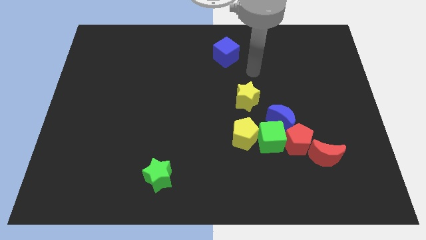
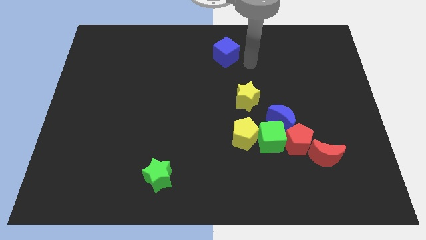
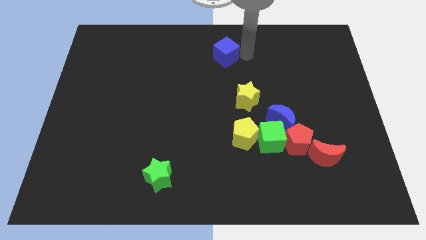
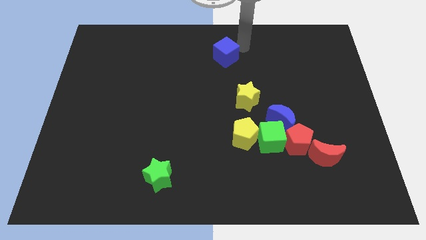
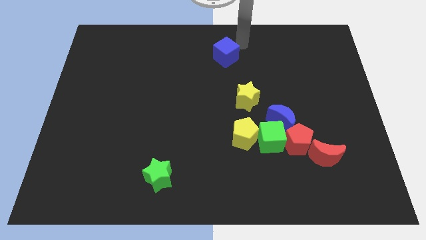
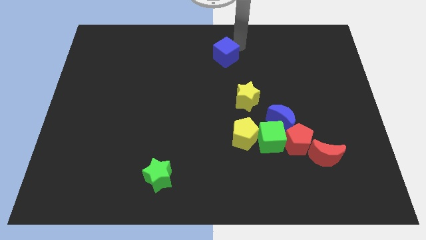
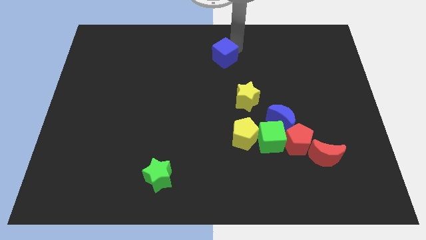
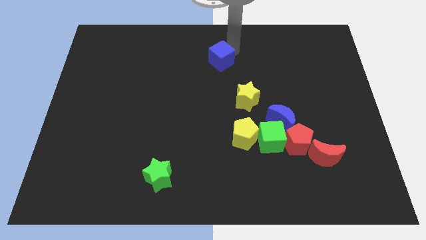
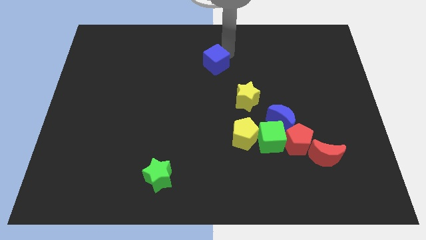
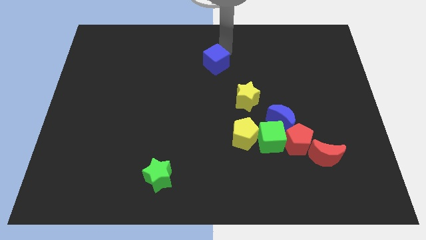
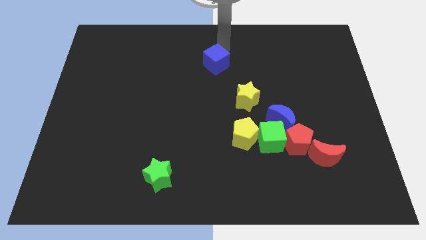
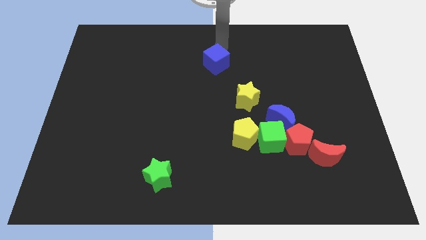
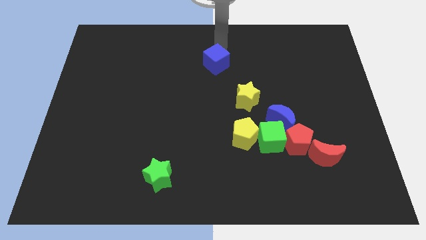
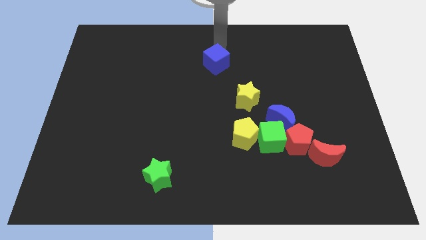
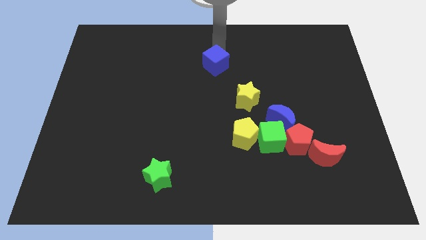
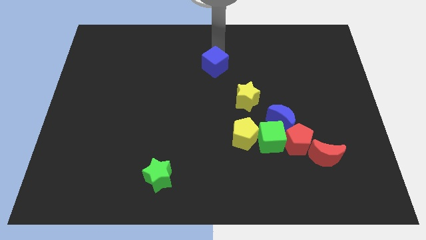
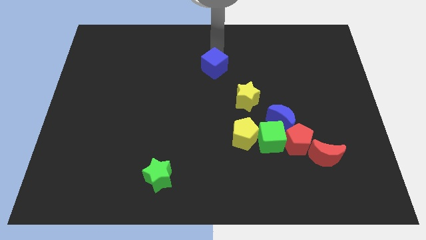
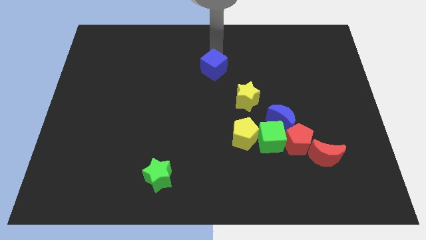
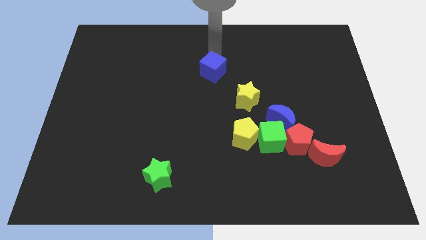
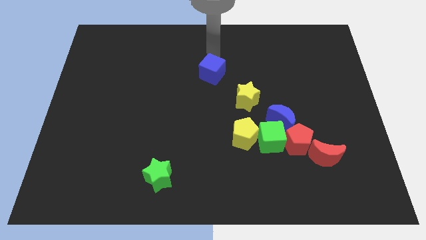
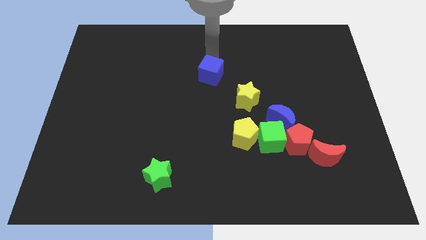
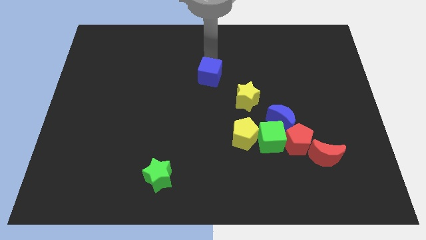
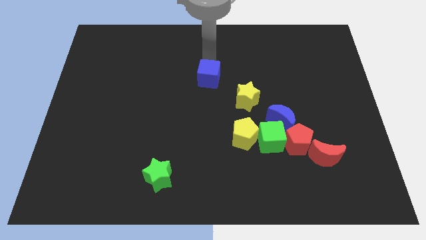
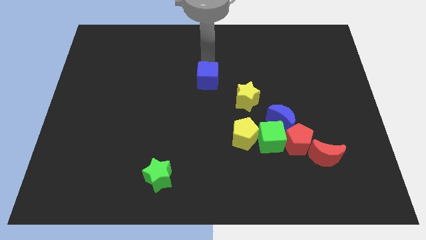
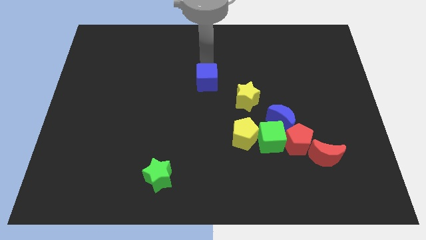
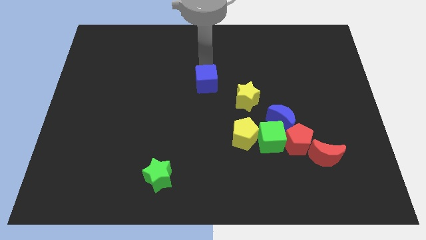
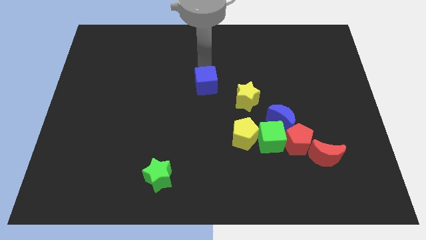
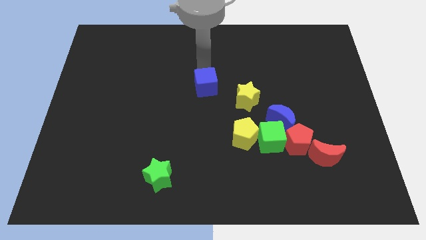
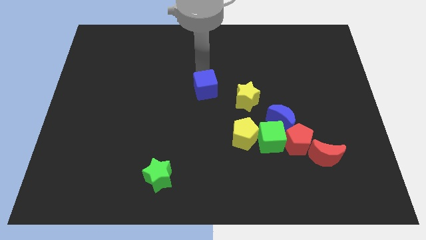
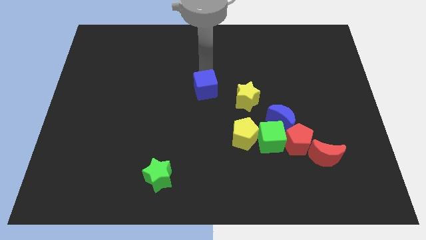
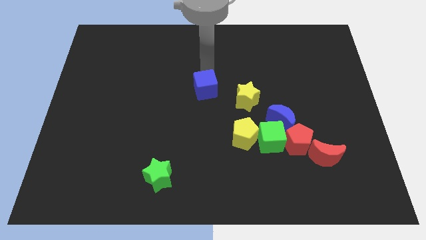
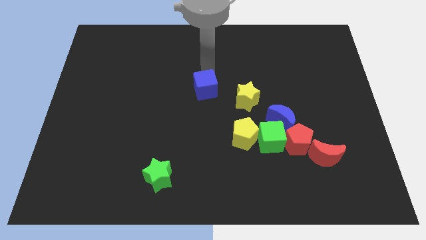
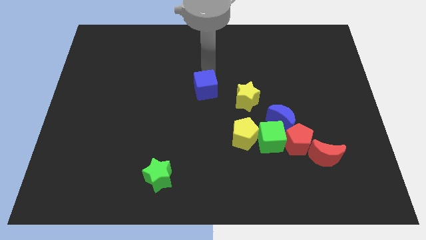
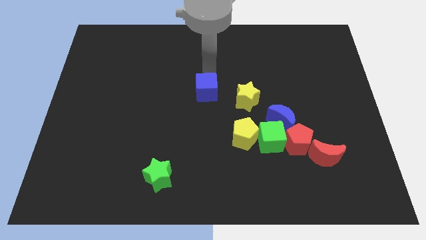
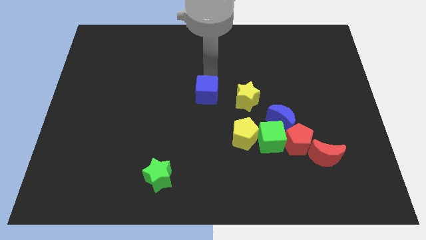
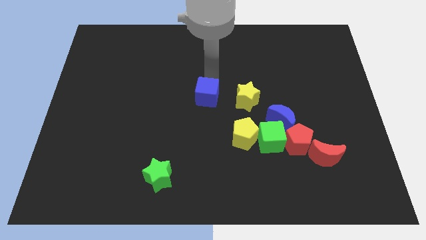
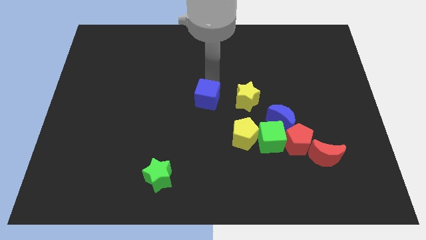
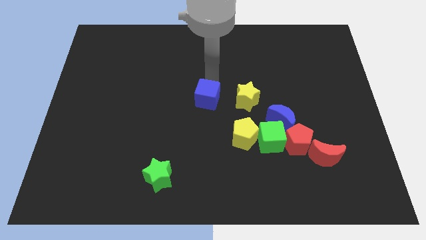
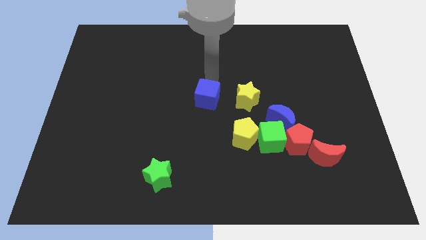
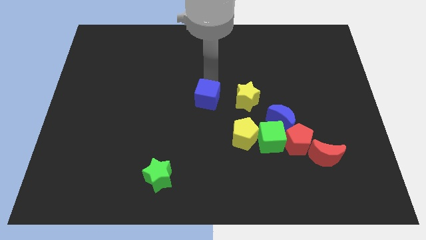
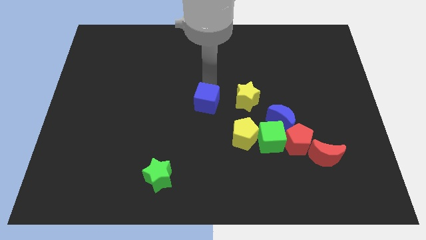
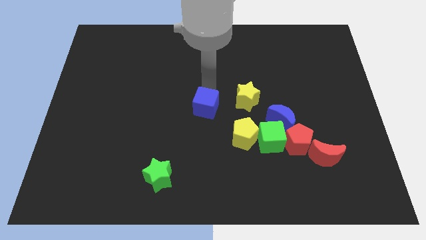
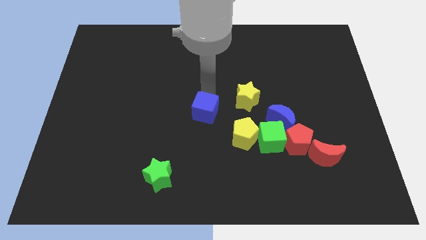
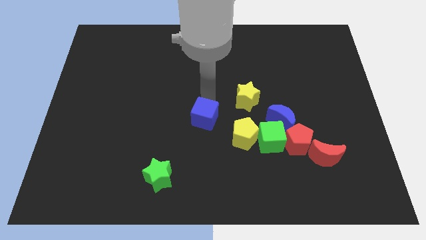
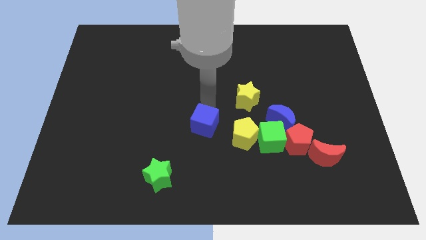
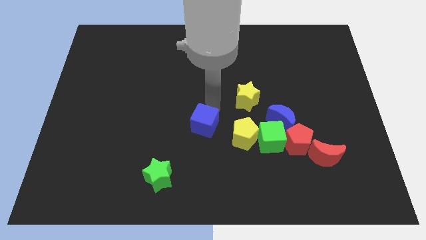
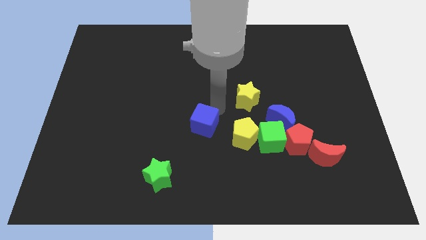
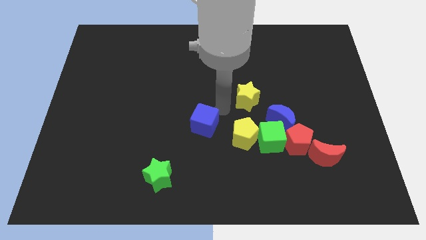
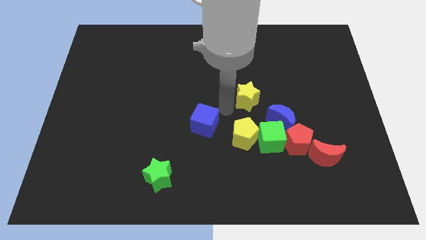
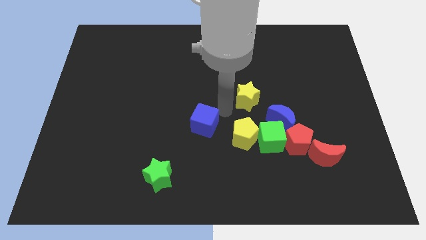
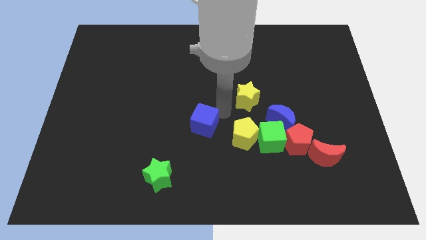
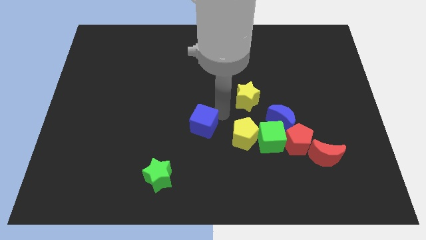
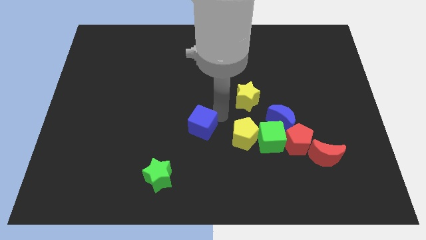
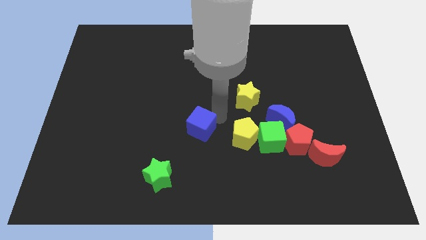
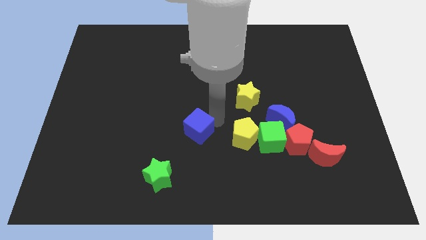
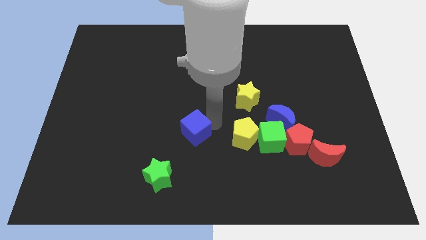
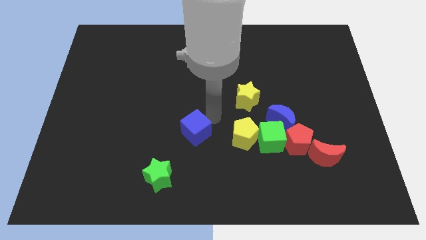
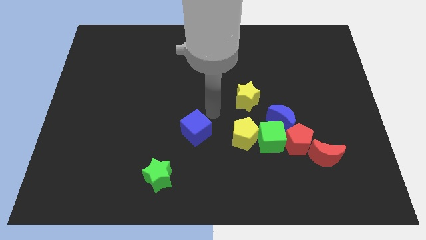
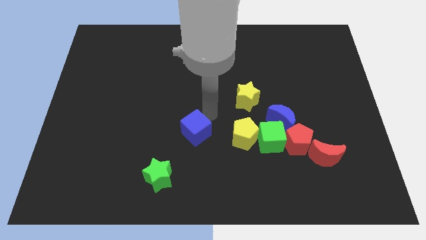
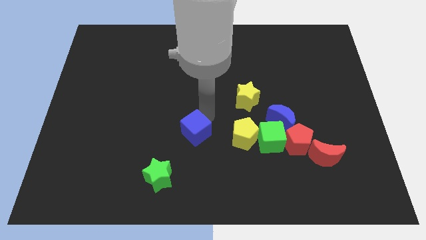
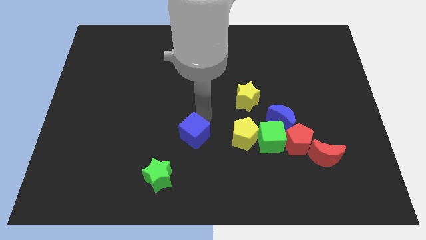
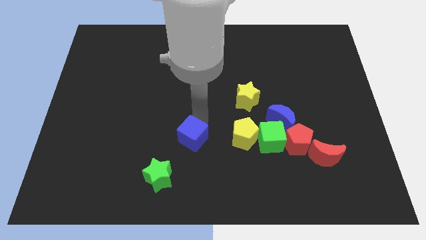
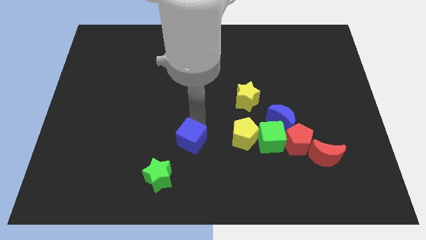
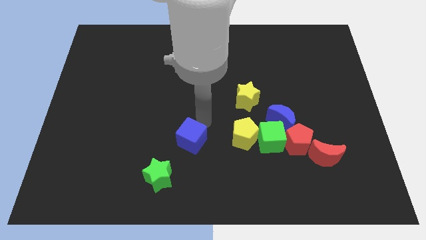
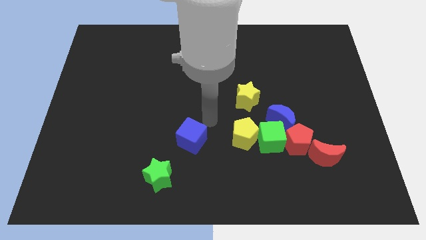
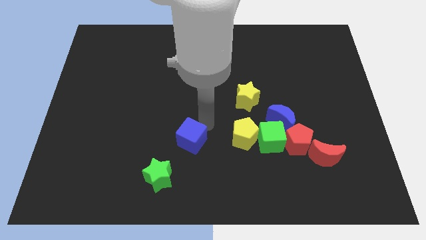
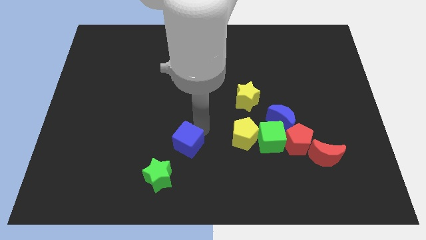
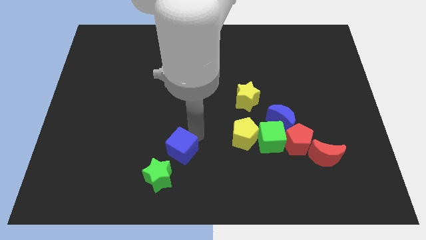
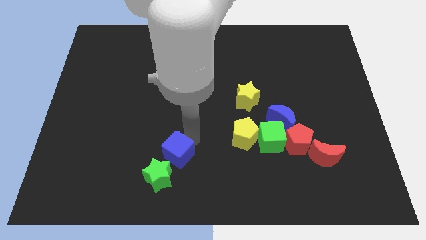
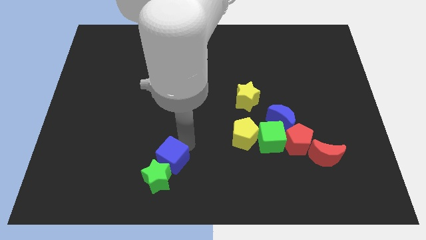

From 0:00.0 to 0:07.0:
slide the blue cube towards the green star

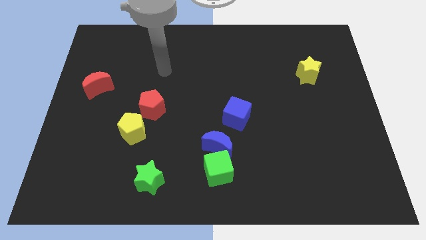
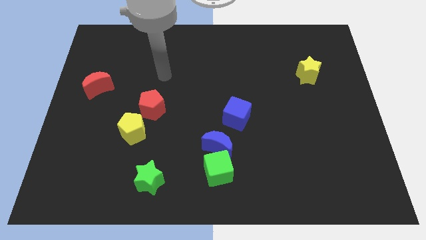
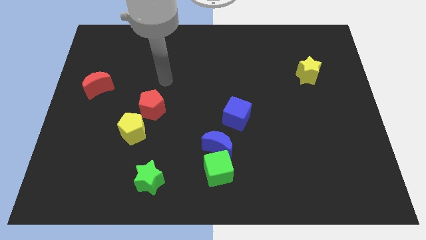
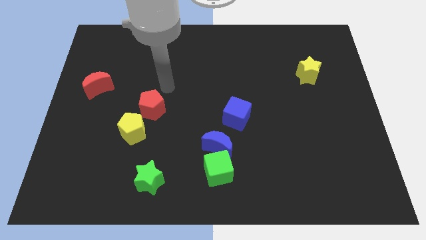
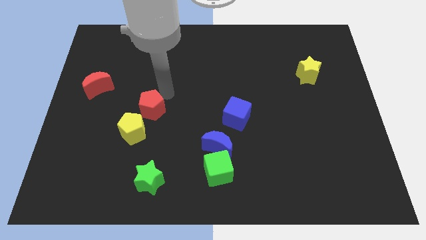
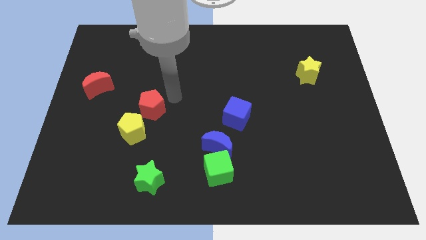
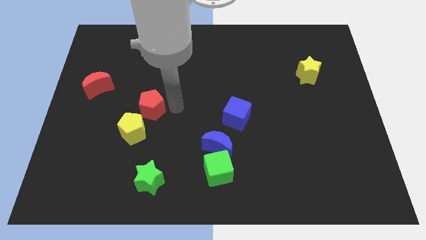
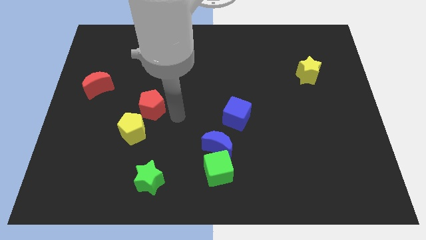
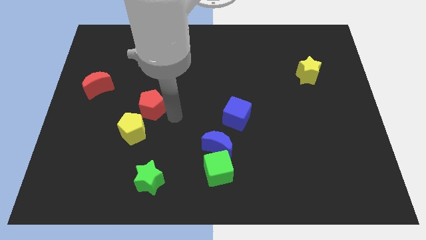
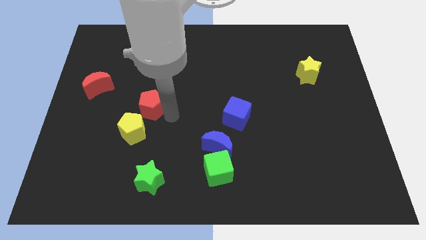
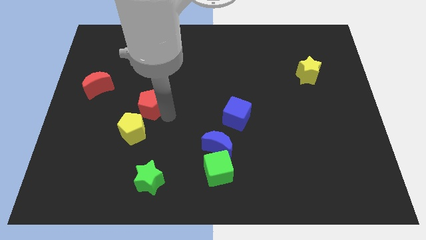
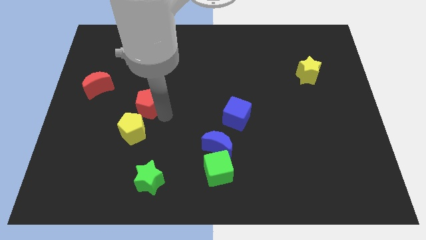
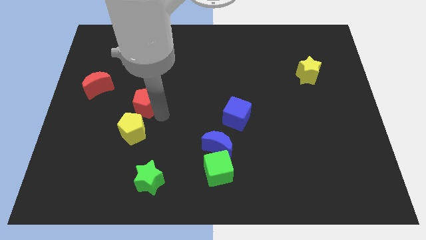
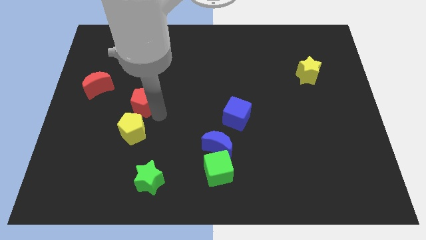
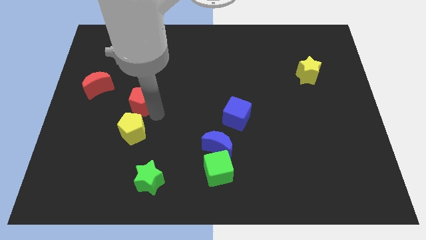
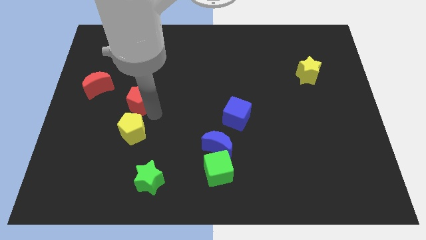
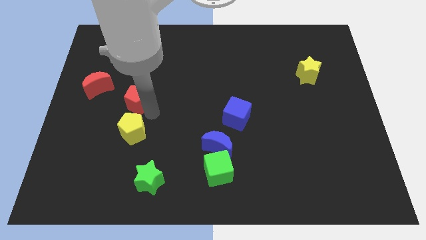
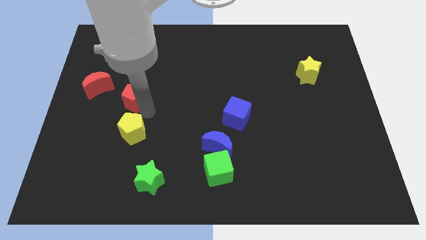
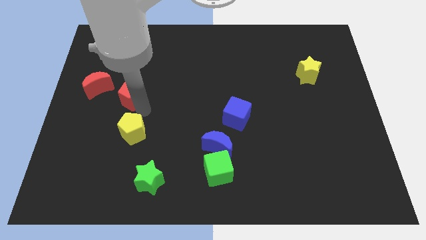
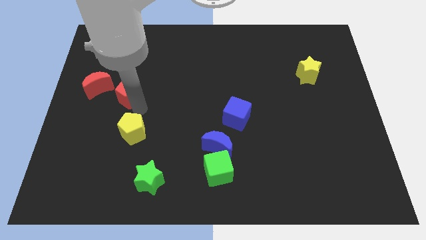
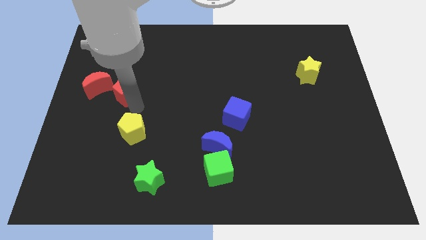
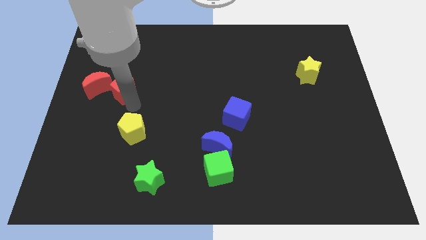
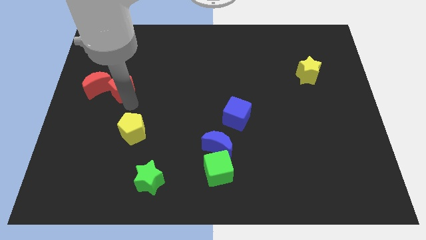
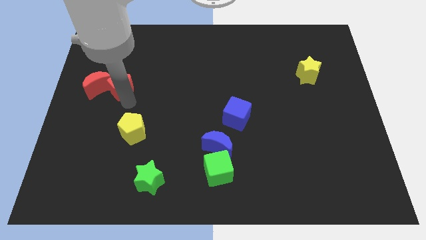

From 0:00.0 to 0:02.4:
push the red pentagon towards the red moon
